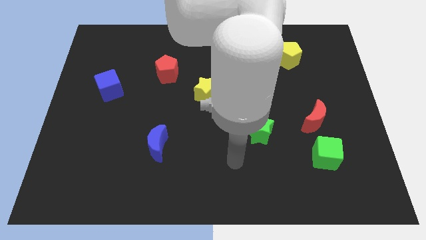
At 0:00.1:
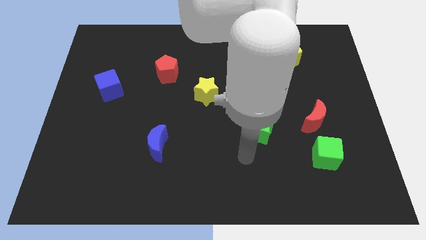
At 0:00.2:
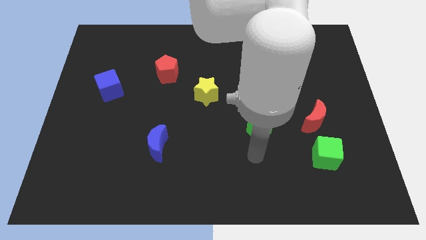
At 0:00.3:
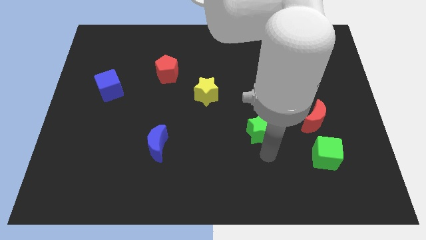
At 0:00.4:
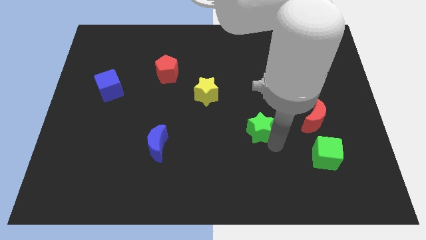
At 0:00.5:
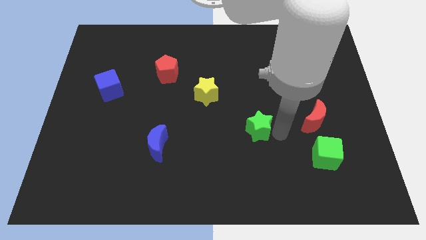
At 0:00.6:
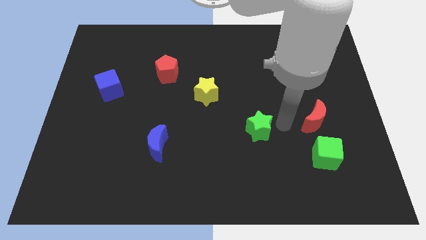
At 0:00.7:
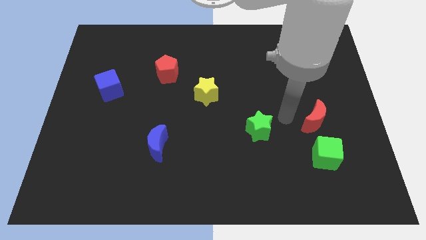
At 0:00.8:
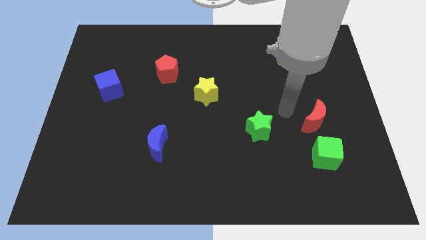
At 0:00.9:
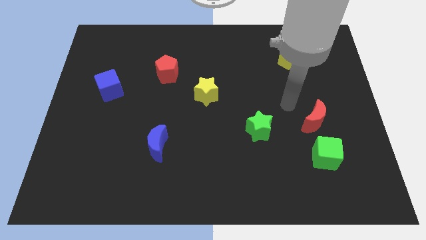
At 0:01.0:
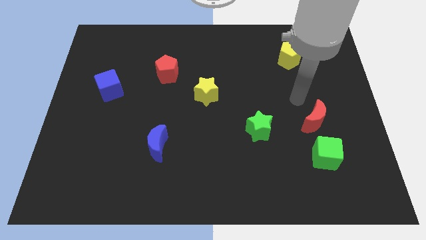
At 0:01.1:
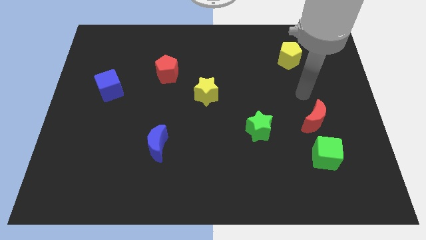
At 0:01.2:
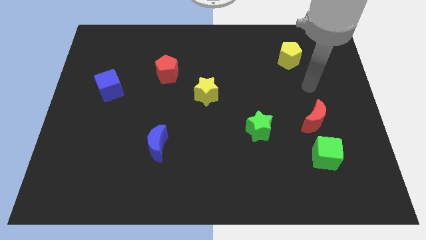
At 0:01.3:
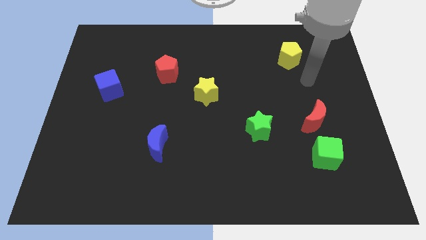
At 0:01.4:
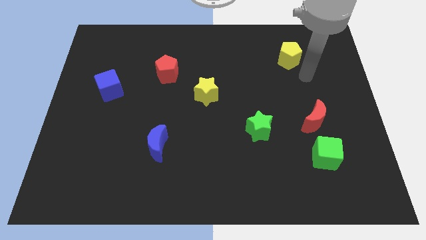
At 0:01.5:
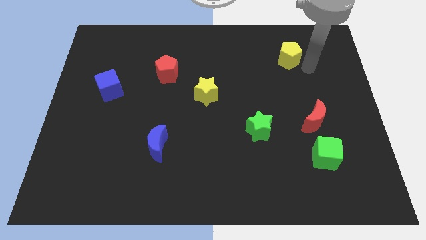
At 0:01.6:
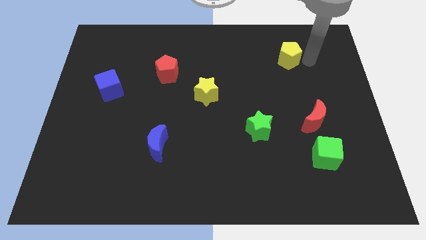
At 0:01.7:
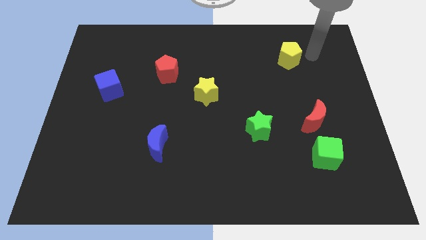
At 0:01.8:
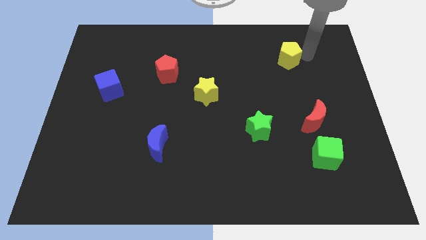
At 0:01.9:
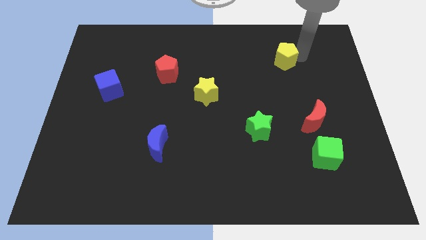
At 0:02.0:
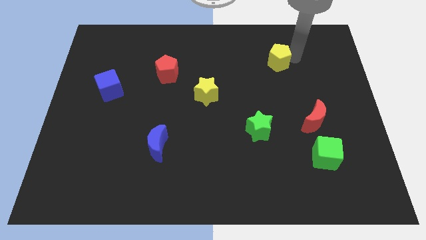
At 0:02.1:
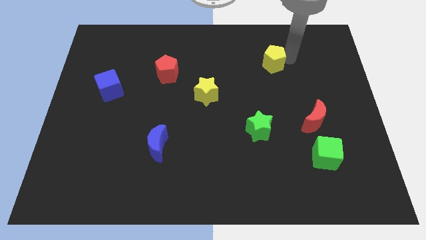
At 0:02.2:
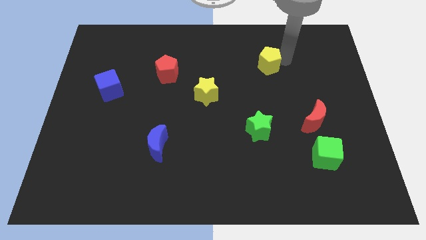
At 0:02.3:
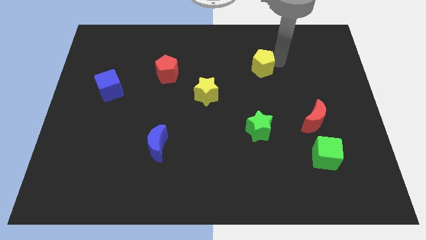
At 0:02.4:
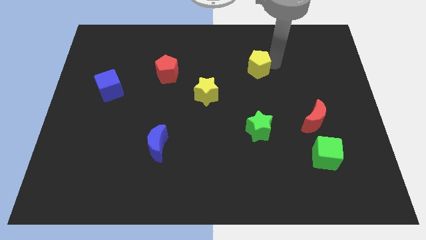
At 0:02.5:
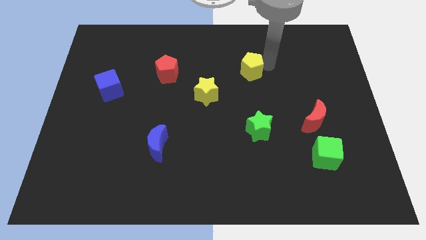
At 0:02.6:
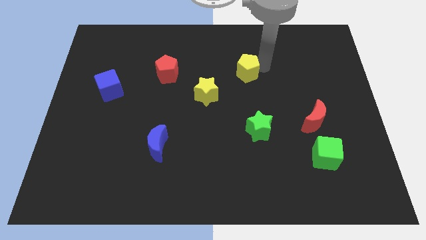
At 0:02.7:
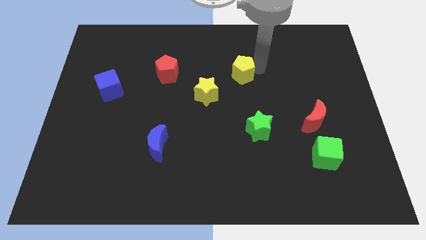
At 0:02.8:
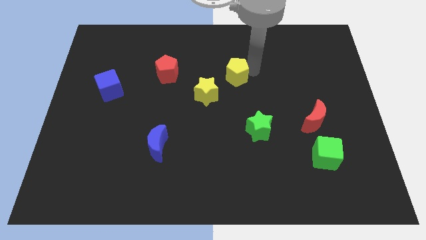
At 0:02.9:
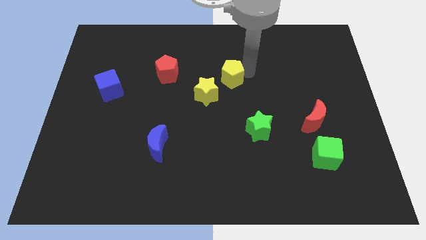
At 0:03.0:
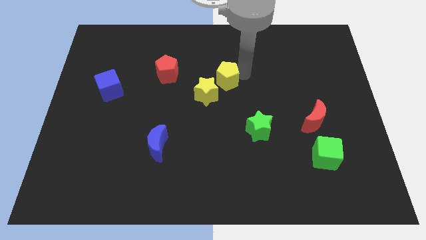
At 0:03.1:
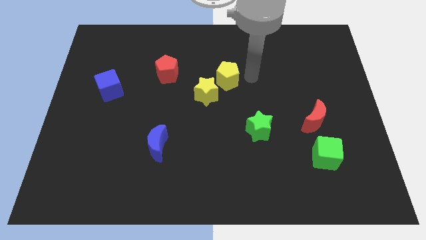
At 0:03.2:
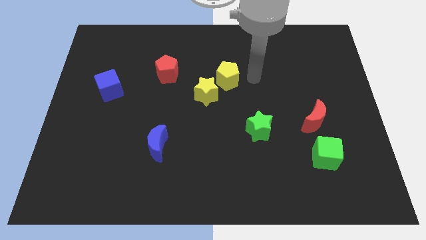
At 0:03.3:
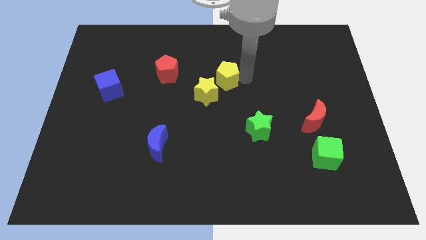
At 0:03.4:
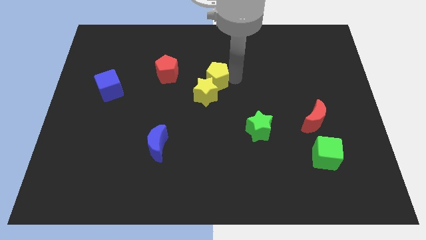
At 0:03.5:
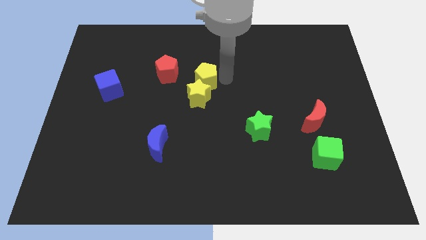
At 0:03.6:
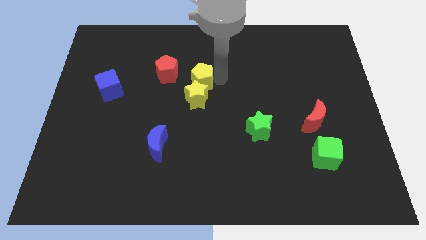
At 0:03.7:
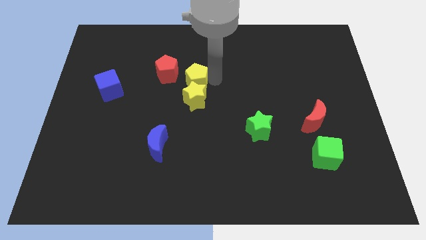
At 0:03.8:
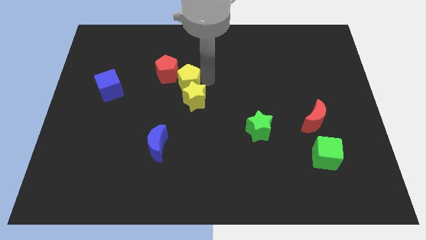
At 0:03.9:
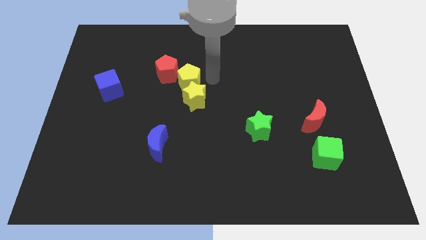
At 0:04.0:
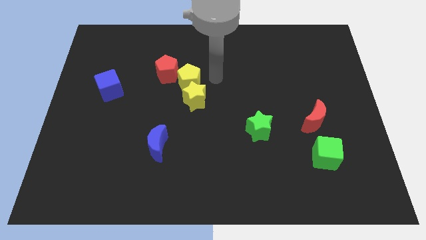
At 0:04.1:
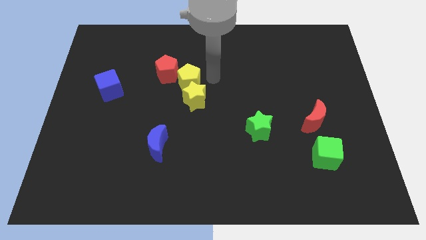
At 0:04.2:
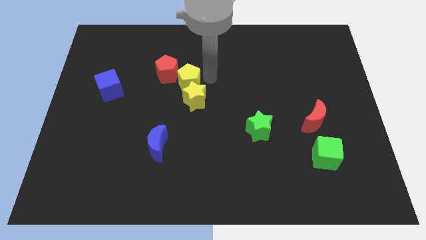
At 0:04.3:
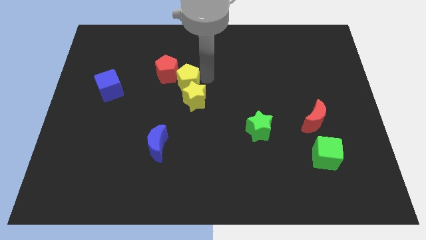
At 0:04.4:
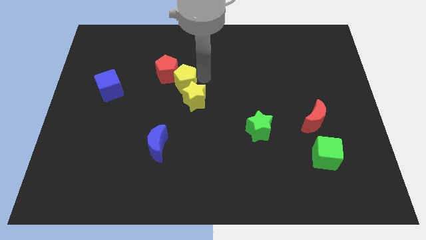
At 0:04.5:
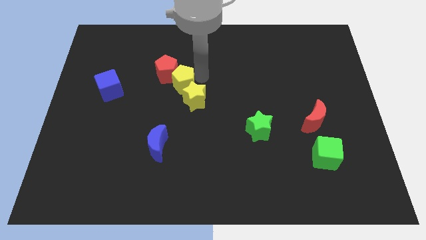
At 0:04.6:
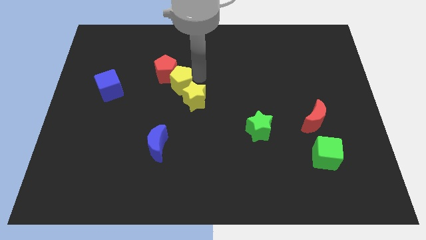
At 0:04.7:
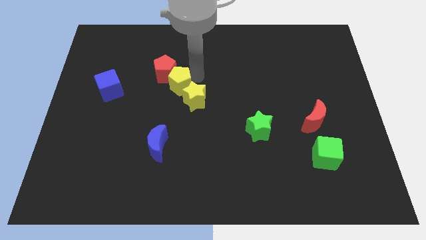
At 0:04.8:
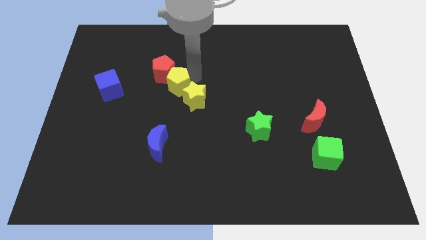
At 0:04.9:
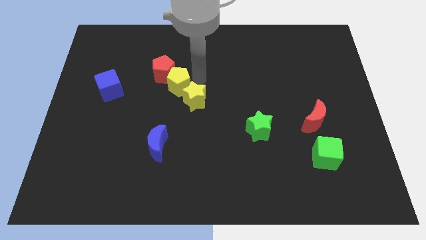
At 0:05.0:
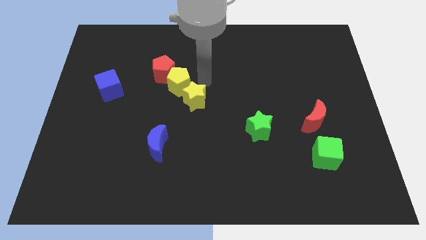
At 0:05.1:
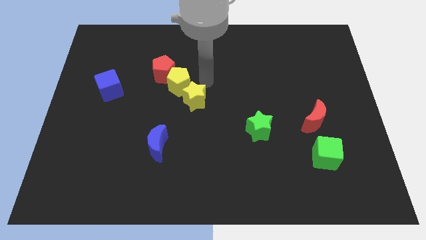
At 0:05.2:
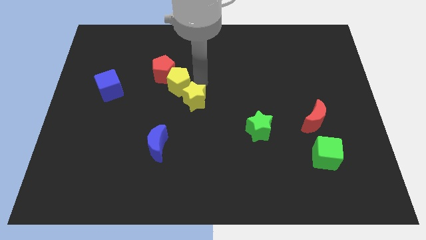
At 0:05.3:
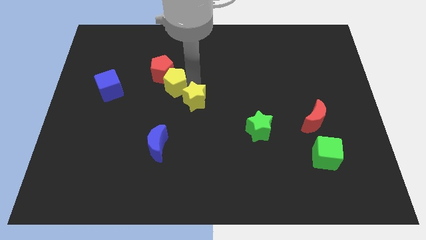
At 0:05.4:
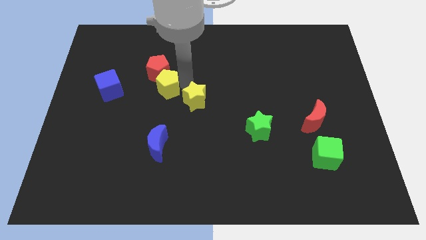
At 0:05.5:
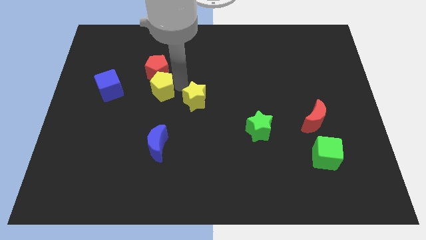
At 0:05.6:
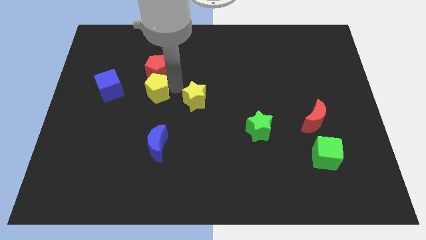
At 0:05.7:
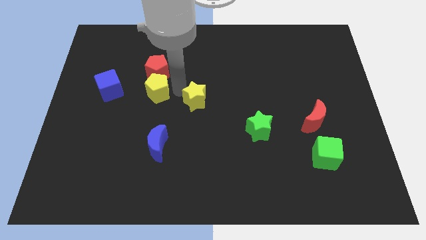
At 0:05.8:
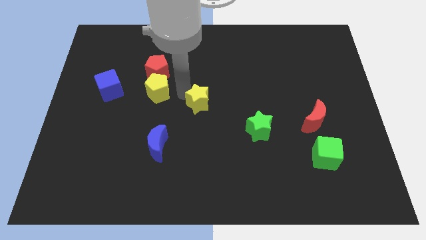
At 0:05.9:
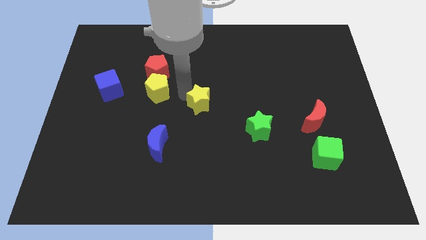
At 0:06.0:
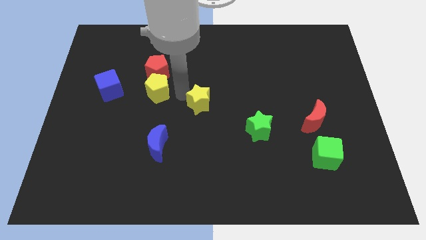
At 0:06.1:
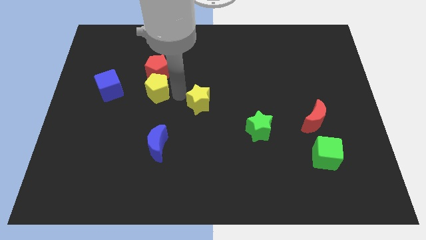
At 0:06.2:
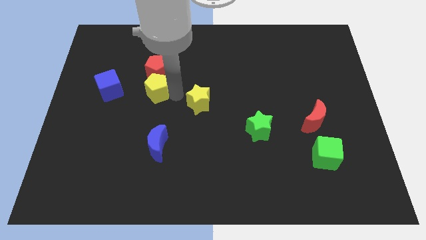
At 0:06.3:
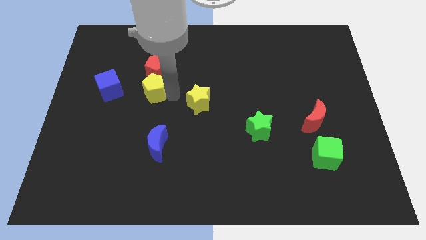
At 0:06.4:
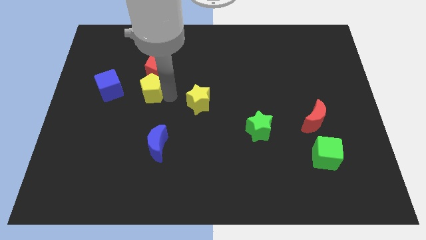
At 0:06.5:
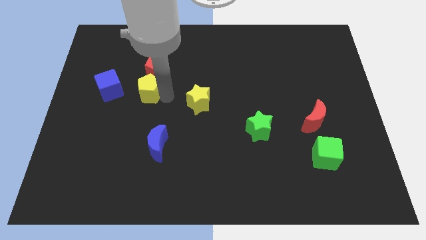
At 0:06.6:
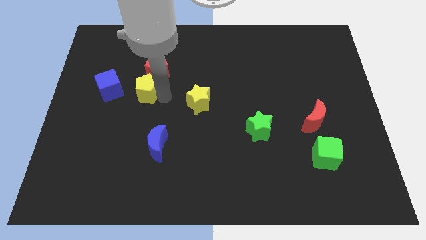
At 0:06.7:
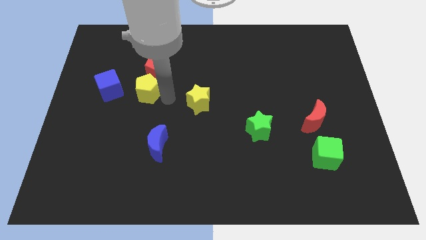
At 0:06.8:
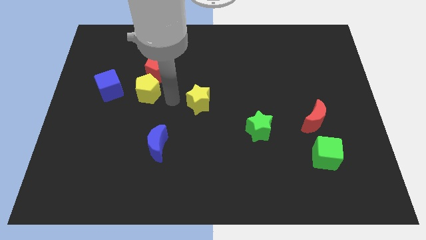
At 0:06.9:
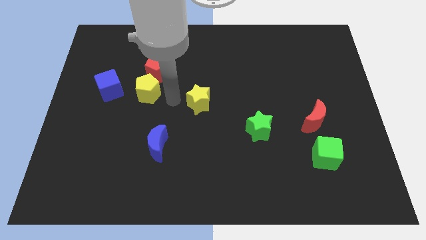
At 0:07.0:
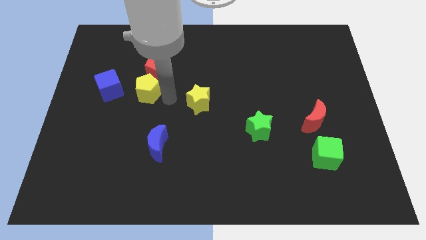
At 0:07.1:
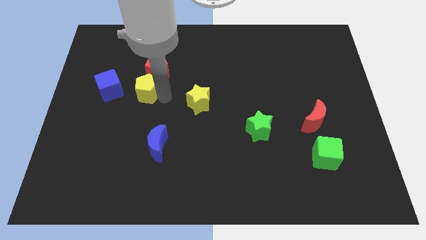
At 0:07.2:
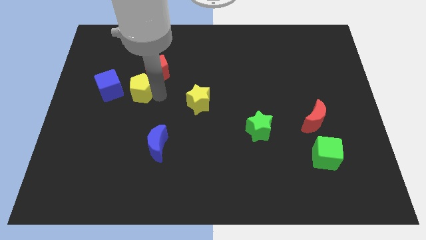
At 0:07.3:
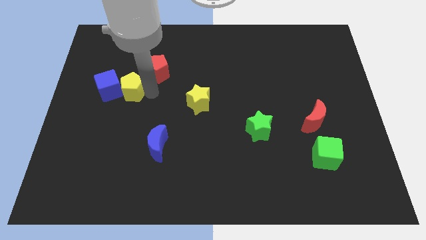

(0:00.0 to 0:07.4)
put the yellow pentagon close to the blue cube
